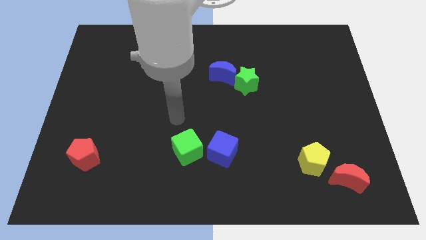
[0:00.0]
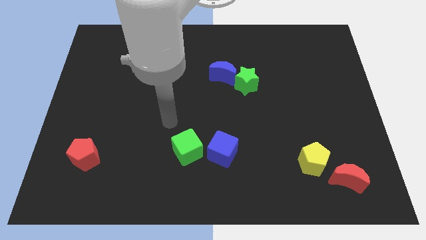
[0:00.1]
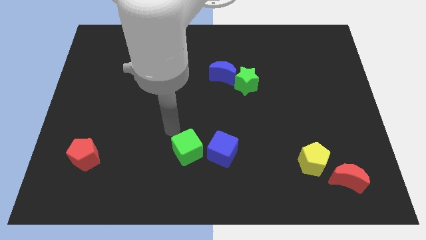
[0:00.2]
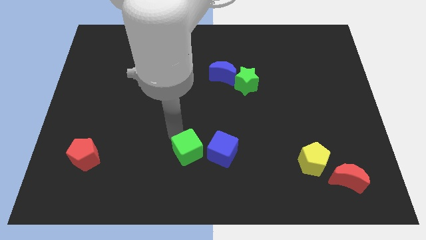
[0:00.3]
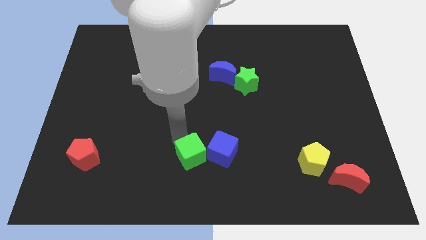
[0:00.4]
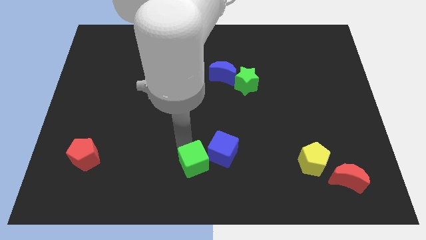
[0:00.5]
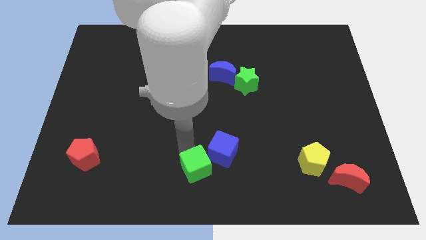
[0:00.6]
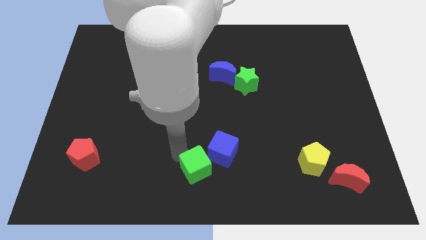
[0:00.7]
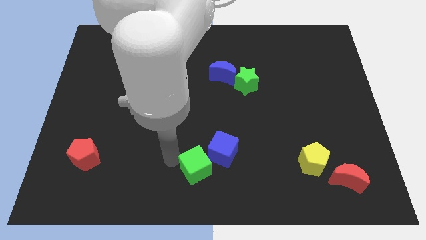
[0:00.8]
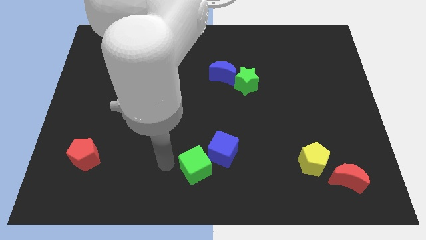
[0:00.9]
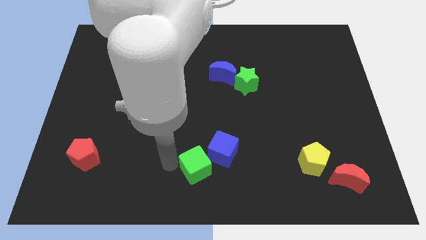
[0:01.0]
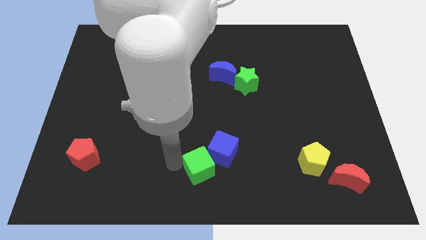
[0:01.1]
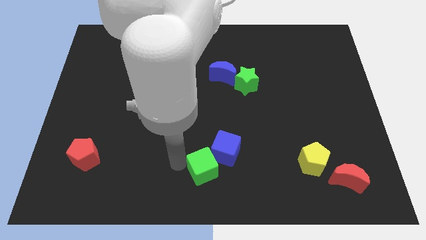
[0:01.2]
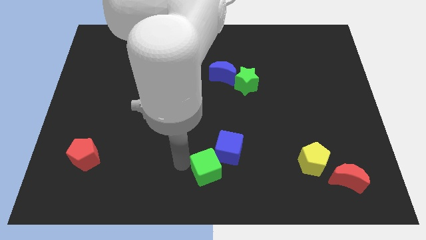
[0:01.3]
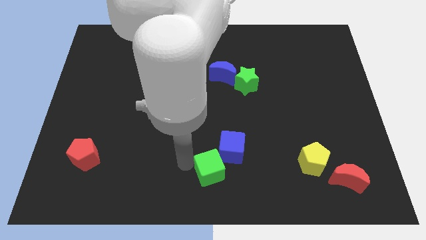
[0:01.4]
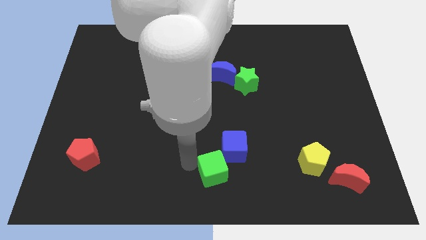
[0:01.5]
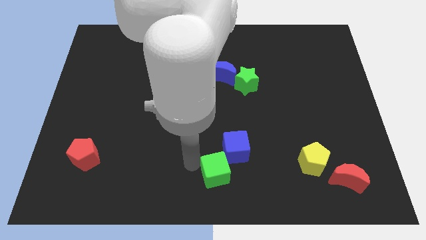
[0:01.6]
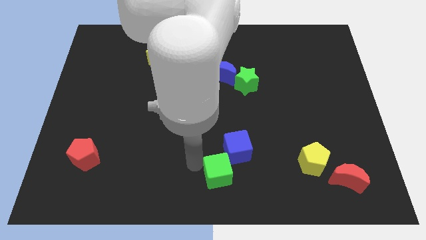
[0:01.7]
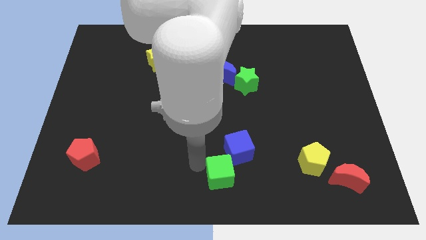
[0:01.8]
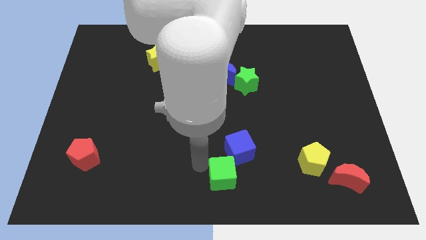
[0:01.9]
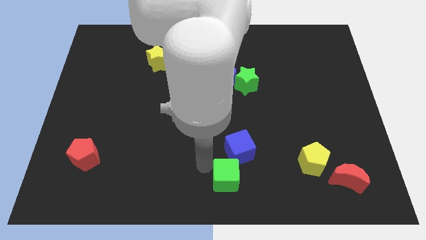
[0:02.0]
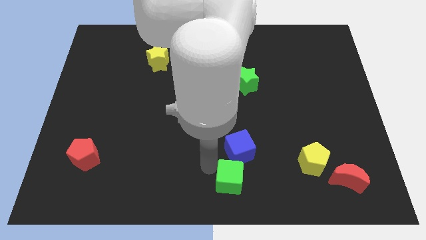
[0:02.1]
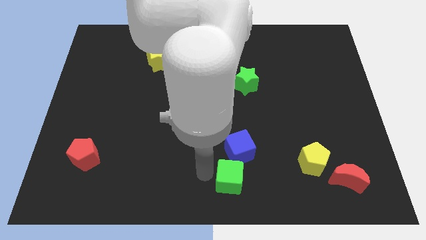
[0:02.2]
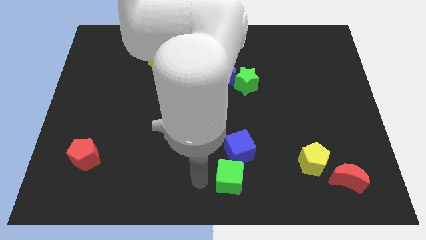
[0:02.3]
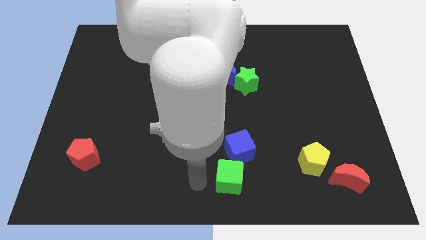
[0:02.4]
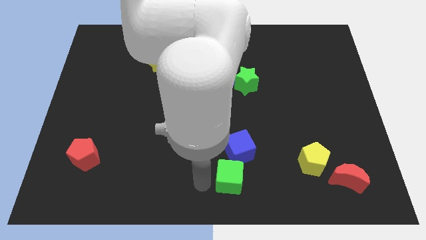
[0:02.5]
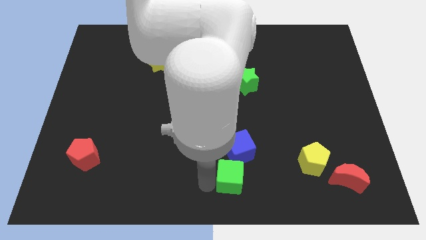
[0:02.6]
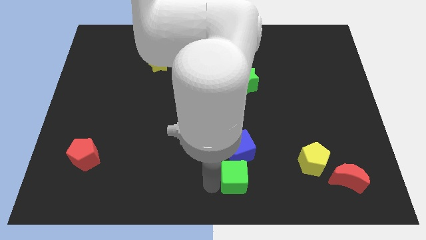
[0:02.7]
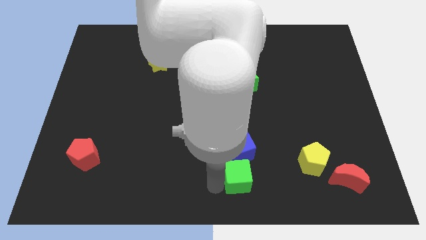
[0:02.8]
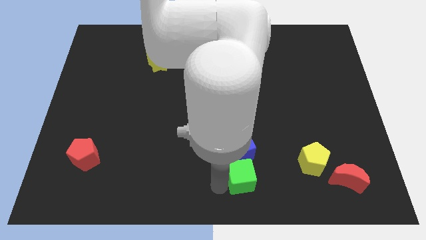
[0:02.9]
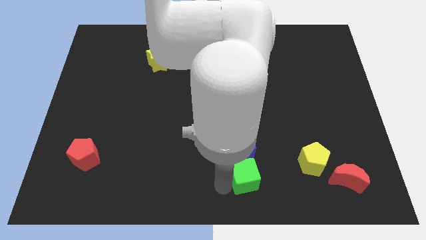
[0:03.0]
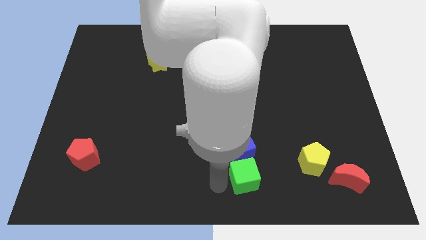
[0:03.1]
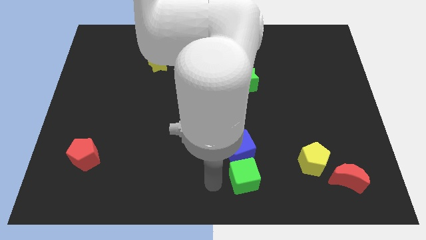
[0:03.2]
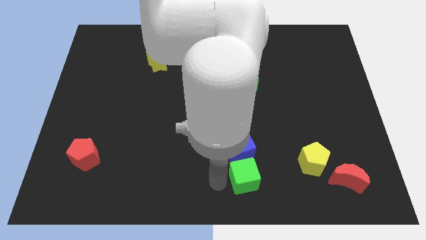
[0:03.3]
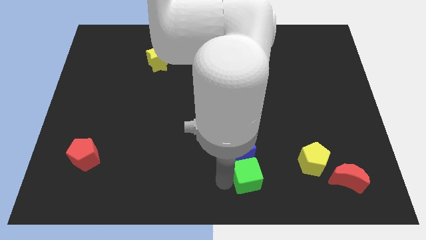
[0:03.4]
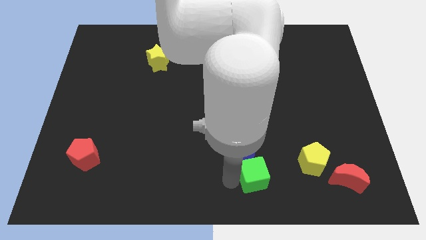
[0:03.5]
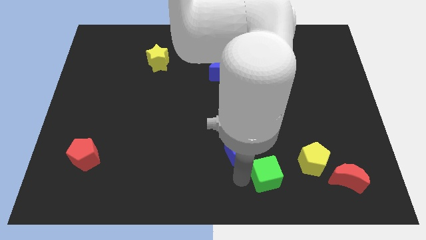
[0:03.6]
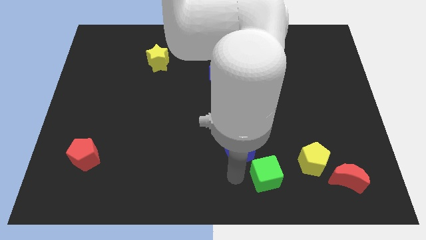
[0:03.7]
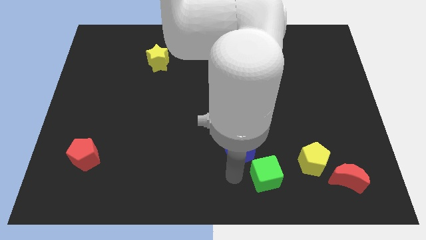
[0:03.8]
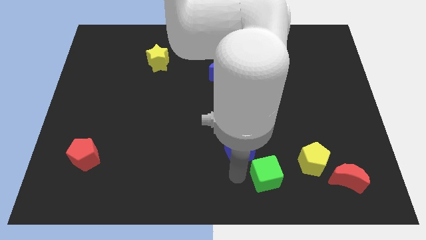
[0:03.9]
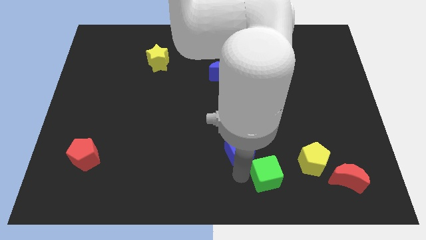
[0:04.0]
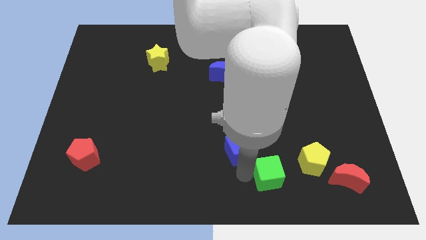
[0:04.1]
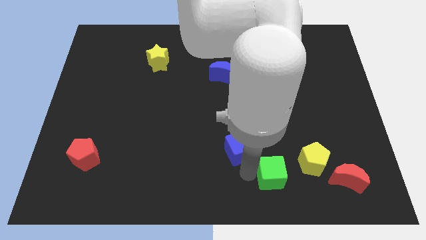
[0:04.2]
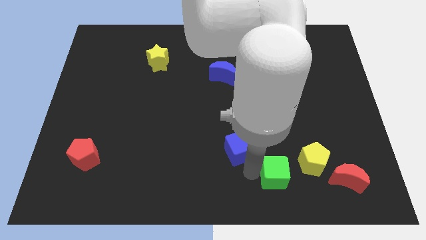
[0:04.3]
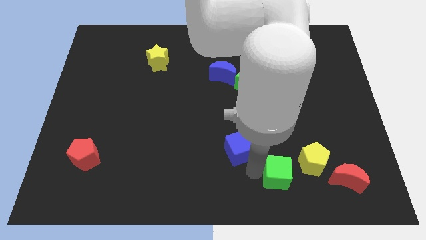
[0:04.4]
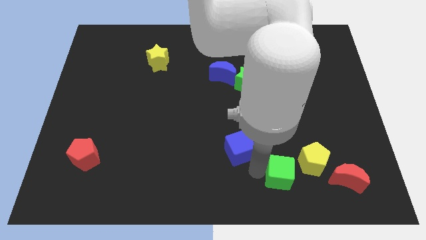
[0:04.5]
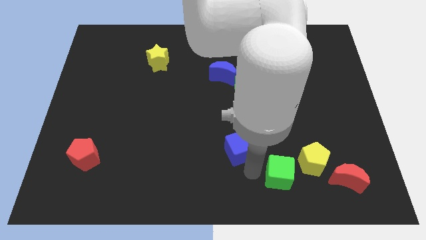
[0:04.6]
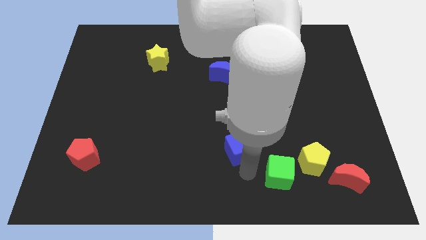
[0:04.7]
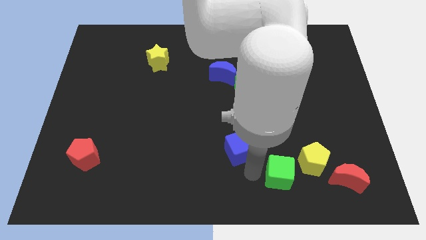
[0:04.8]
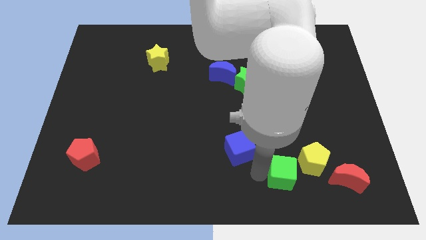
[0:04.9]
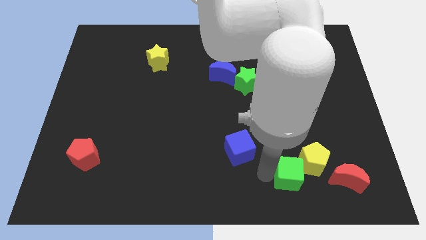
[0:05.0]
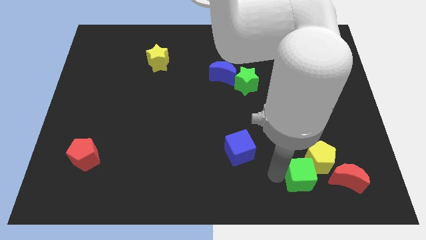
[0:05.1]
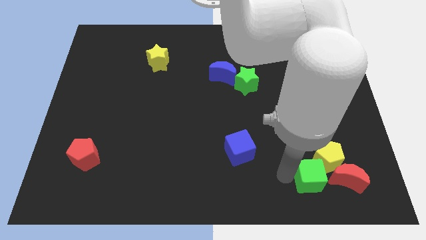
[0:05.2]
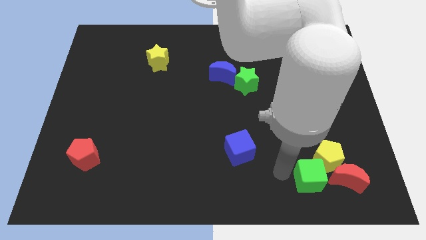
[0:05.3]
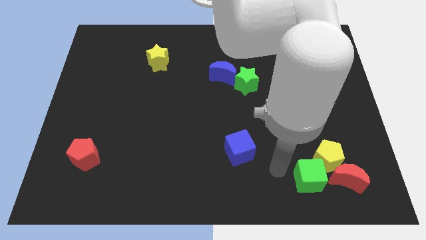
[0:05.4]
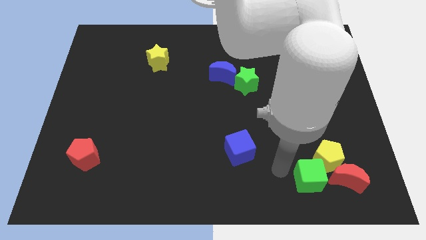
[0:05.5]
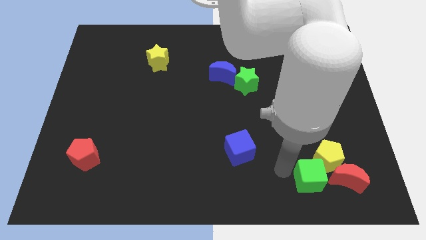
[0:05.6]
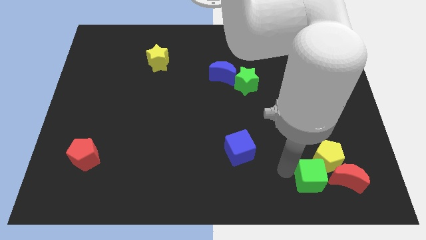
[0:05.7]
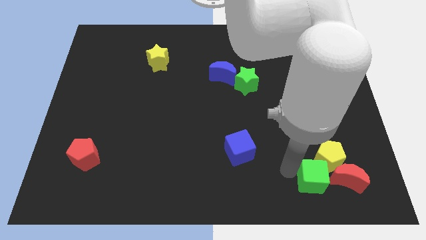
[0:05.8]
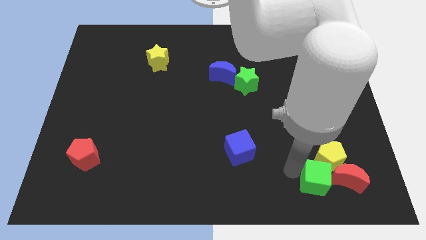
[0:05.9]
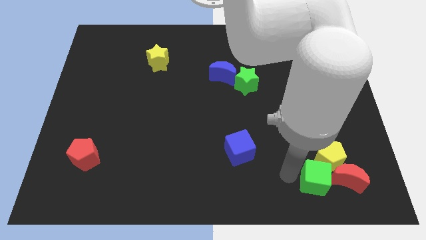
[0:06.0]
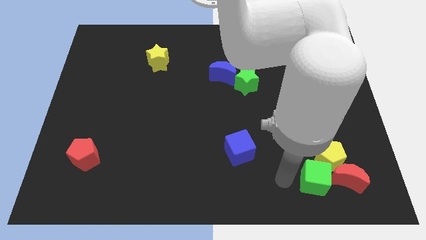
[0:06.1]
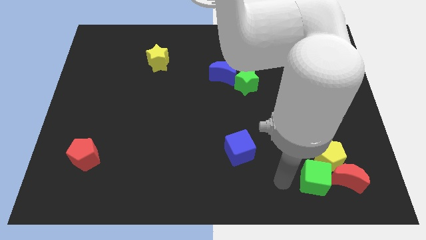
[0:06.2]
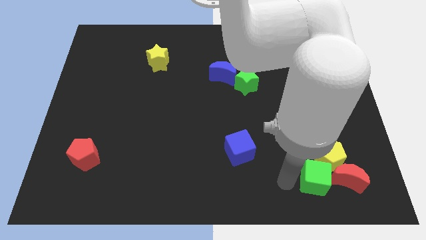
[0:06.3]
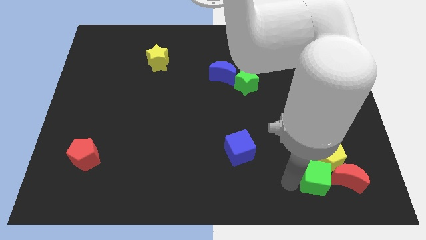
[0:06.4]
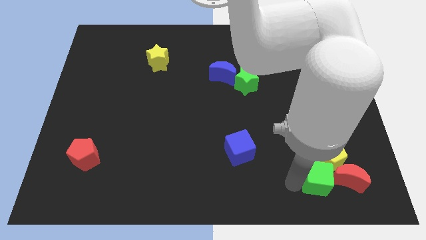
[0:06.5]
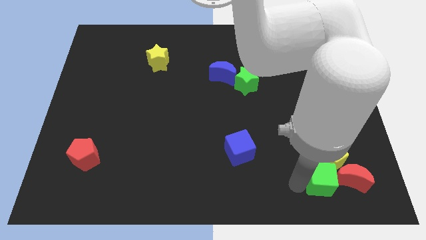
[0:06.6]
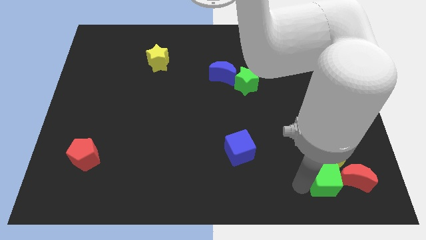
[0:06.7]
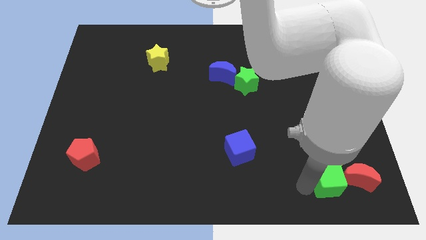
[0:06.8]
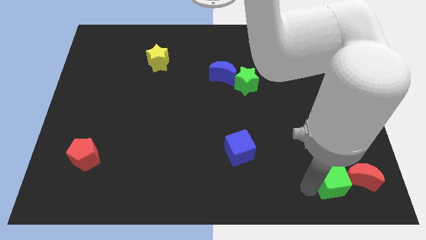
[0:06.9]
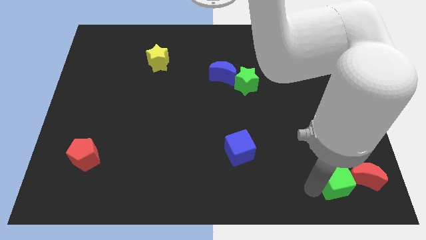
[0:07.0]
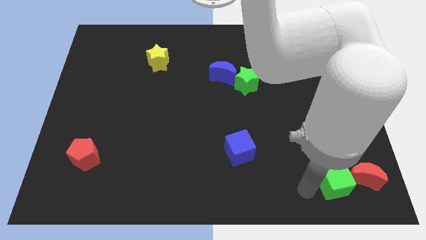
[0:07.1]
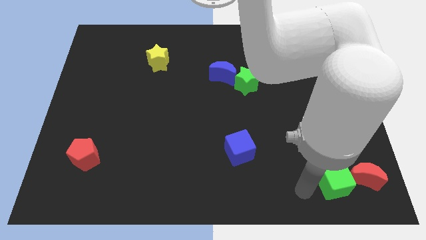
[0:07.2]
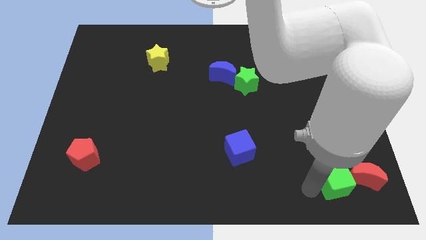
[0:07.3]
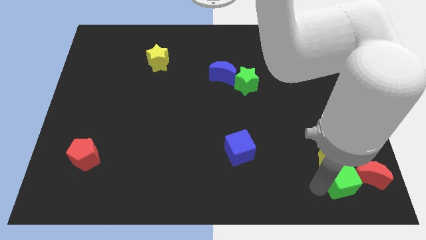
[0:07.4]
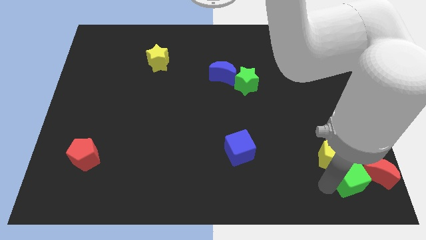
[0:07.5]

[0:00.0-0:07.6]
move the green cube next to the red moon
